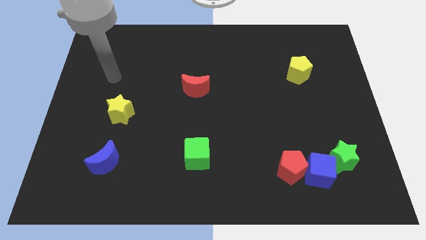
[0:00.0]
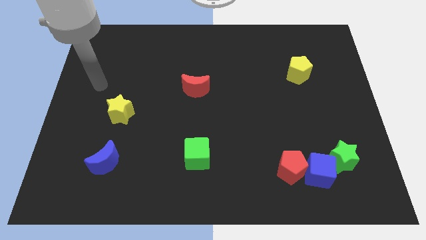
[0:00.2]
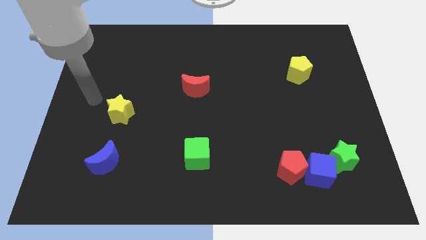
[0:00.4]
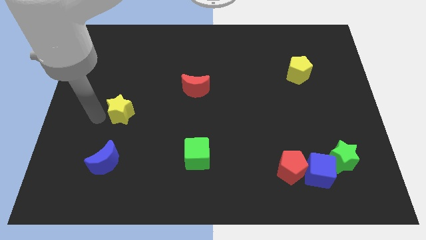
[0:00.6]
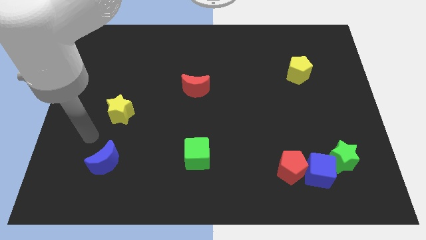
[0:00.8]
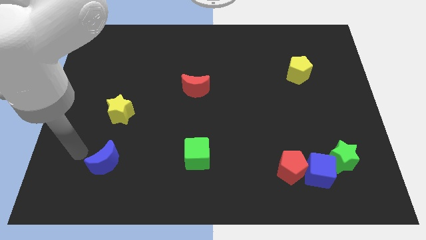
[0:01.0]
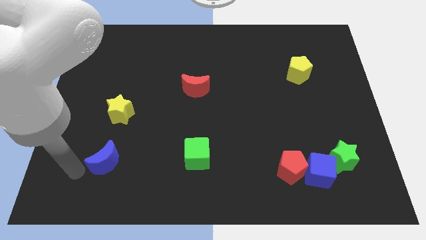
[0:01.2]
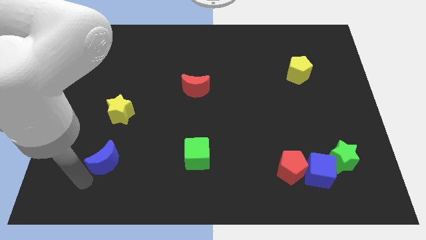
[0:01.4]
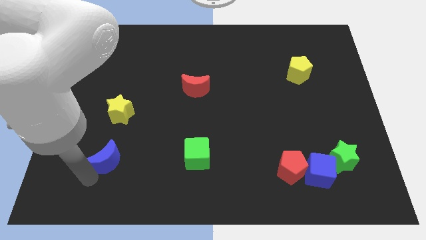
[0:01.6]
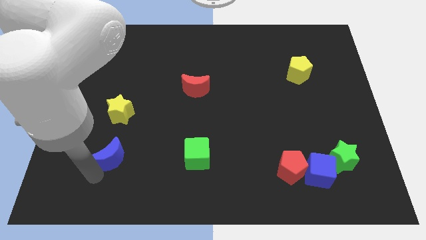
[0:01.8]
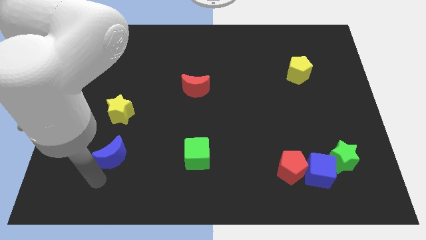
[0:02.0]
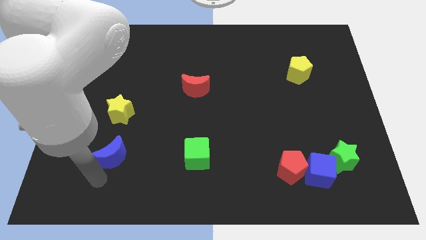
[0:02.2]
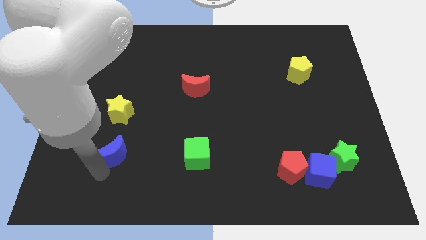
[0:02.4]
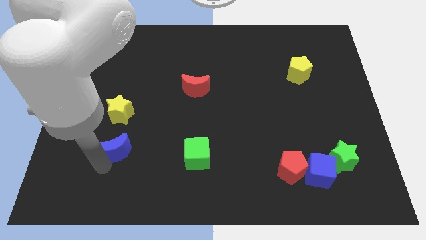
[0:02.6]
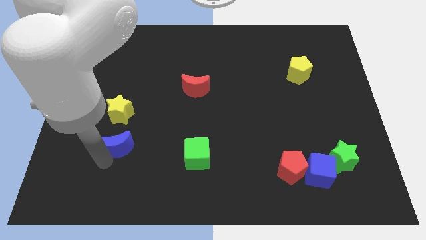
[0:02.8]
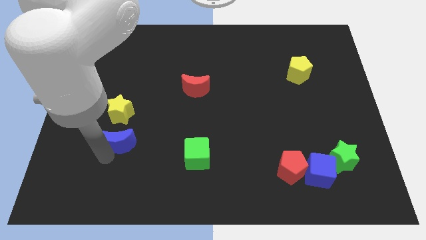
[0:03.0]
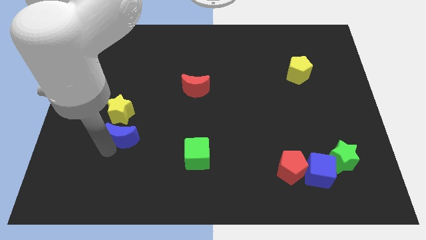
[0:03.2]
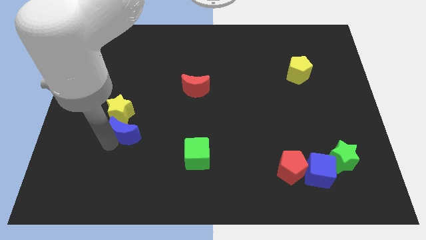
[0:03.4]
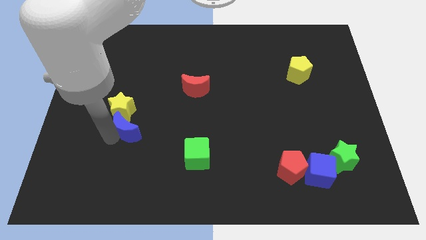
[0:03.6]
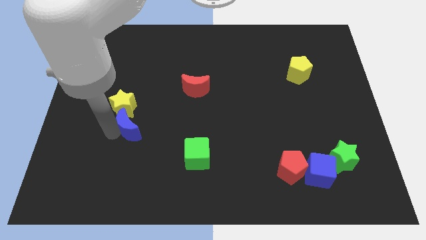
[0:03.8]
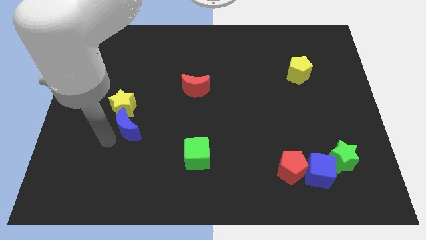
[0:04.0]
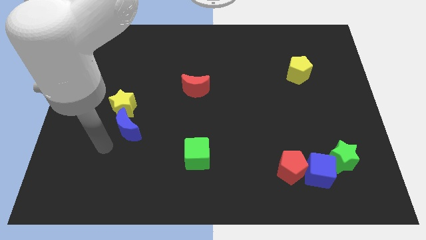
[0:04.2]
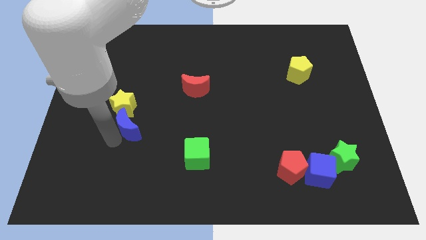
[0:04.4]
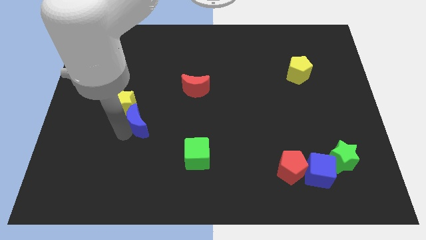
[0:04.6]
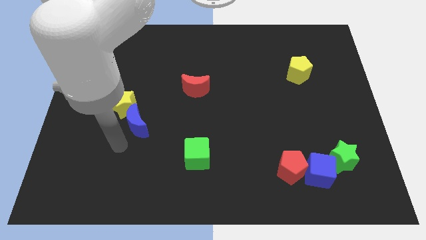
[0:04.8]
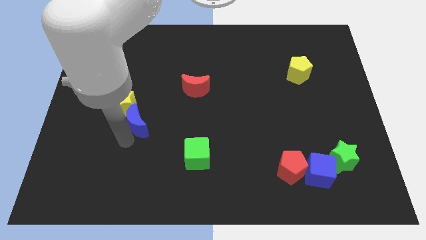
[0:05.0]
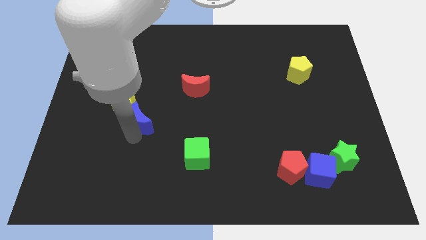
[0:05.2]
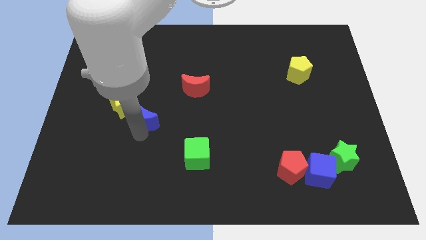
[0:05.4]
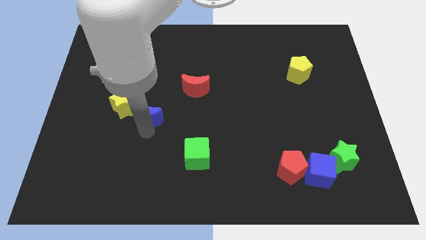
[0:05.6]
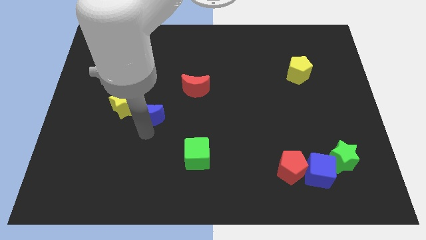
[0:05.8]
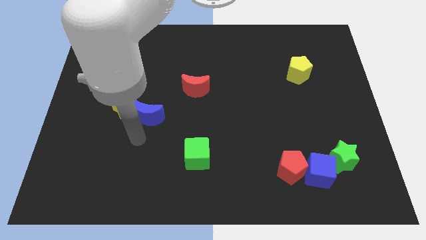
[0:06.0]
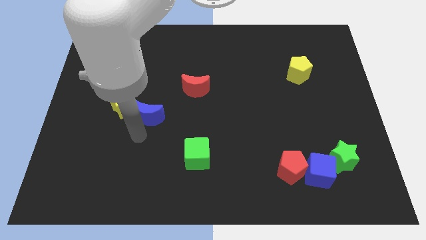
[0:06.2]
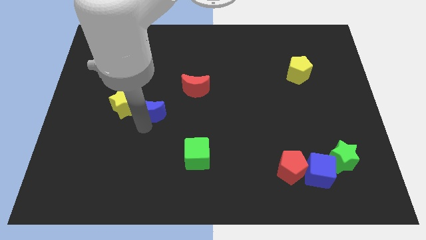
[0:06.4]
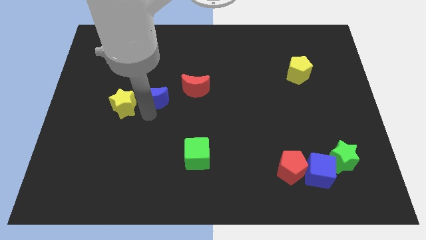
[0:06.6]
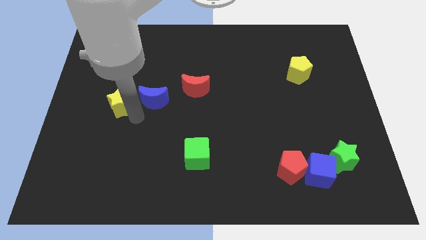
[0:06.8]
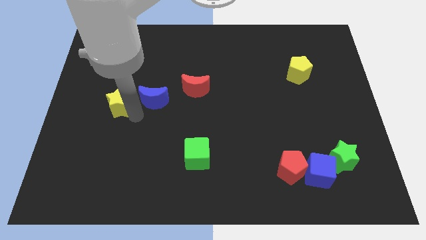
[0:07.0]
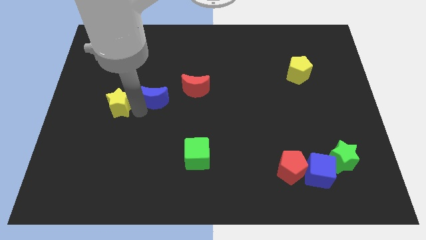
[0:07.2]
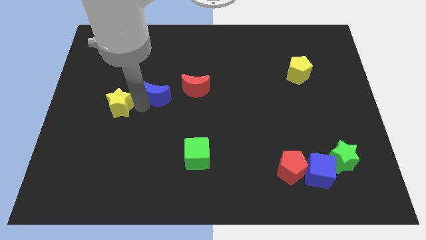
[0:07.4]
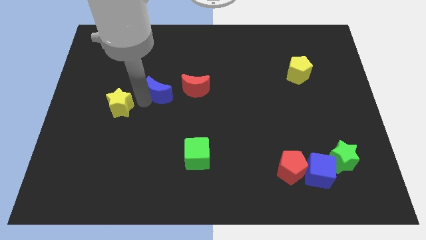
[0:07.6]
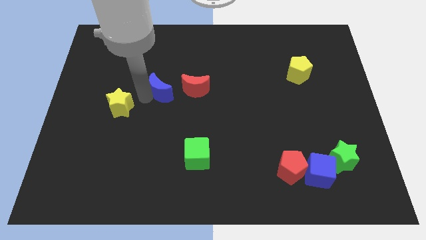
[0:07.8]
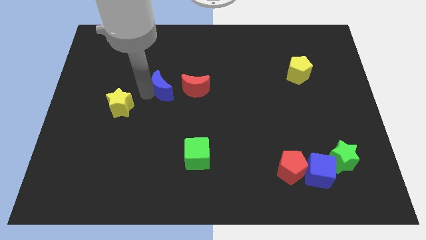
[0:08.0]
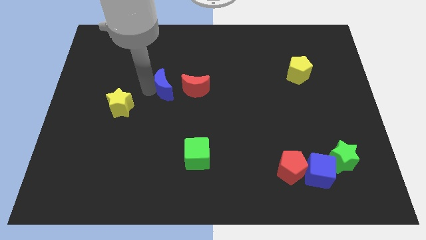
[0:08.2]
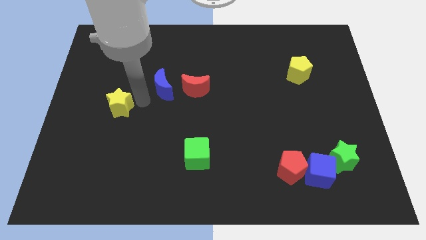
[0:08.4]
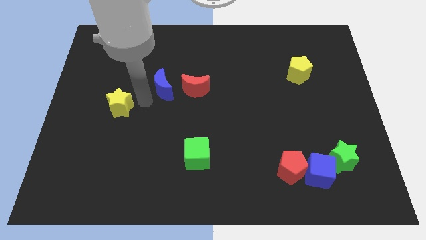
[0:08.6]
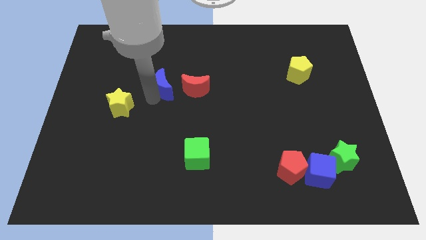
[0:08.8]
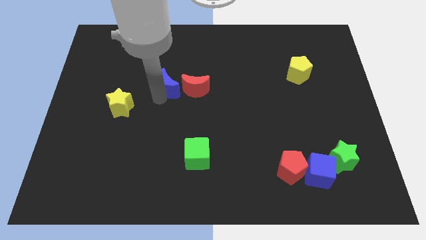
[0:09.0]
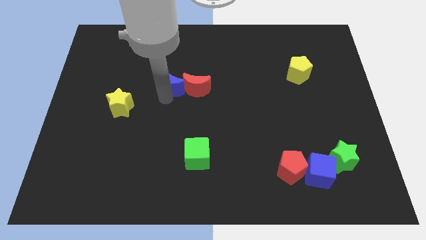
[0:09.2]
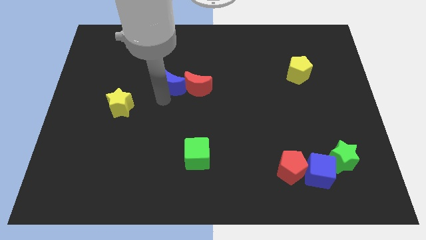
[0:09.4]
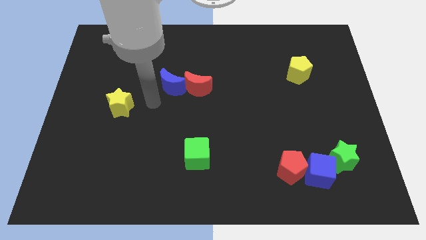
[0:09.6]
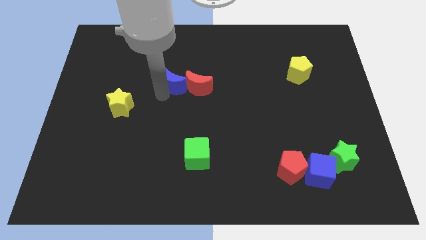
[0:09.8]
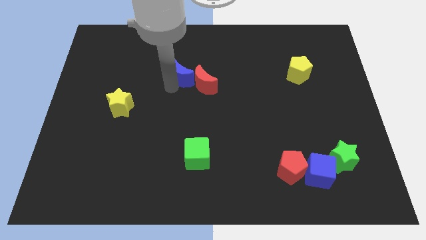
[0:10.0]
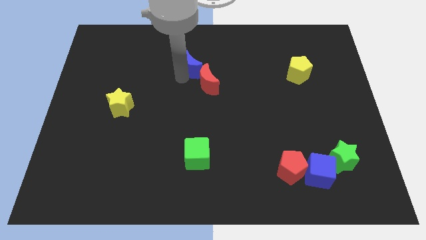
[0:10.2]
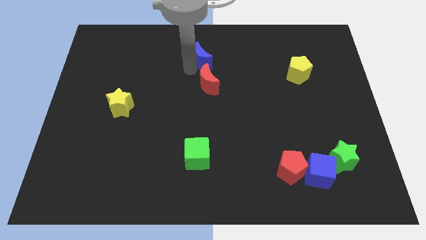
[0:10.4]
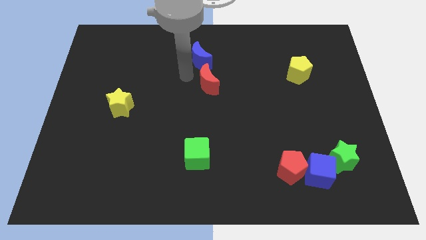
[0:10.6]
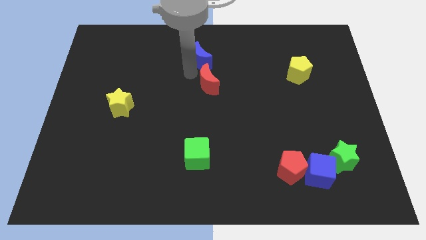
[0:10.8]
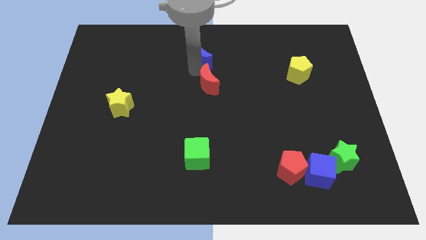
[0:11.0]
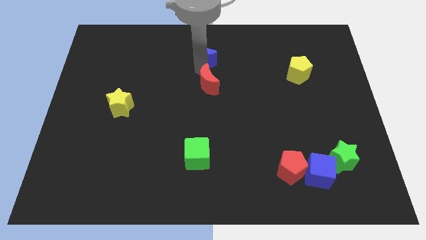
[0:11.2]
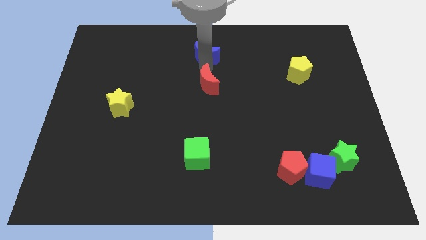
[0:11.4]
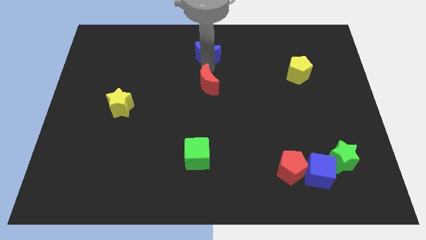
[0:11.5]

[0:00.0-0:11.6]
put the blue moon to the towards your base
